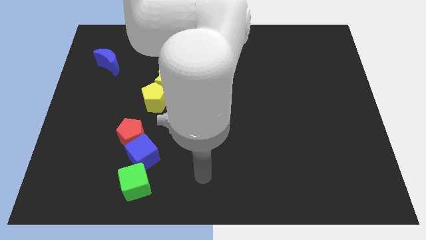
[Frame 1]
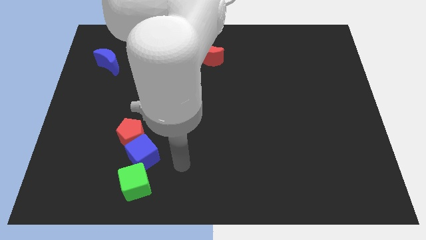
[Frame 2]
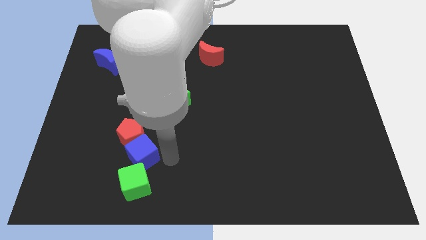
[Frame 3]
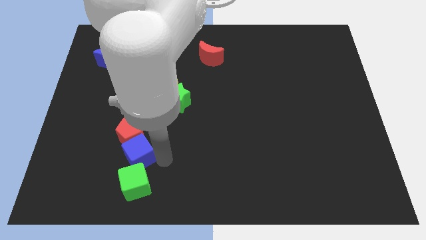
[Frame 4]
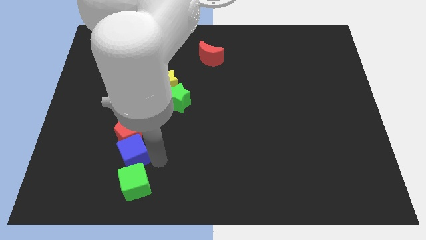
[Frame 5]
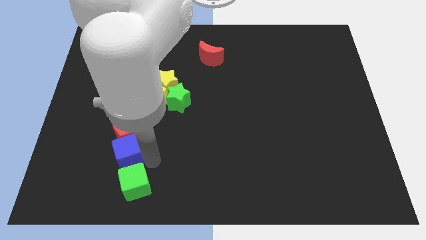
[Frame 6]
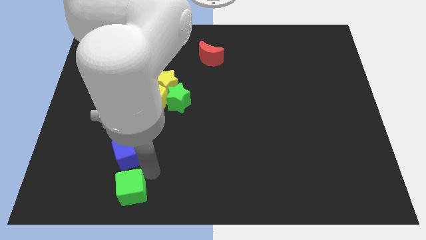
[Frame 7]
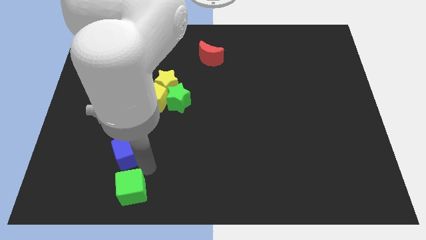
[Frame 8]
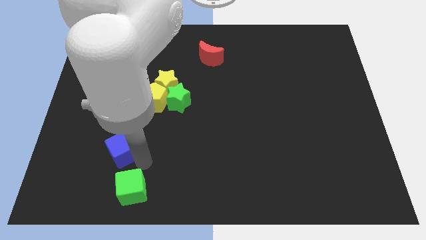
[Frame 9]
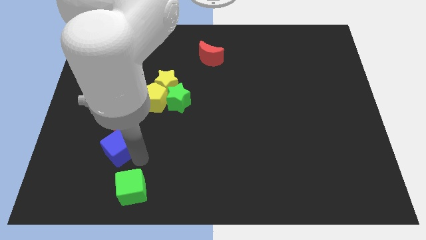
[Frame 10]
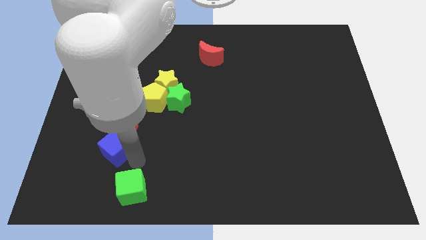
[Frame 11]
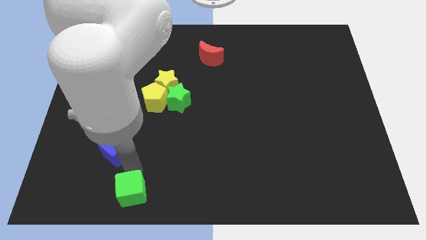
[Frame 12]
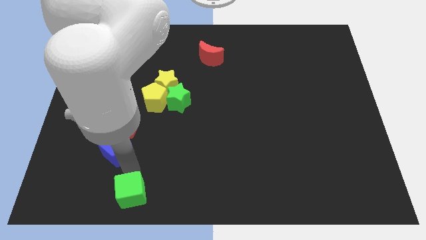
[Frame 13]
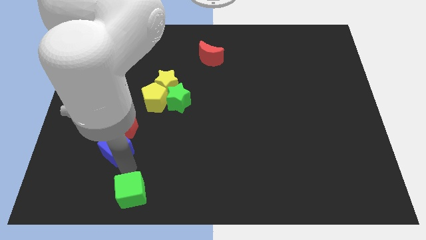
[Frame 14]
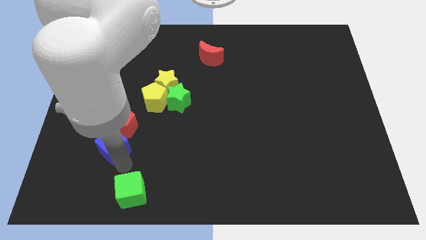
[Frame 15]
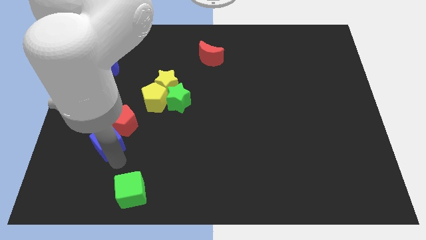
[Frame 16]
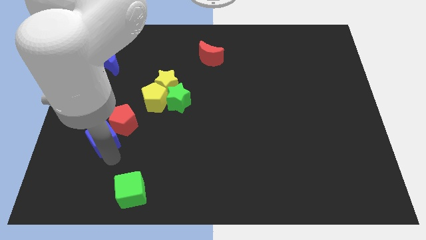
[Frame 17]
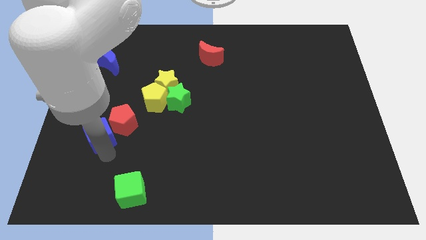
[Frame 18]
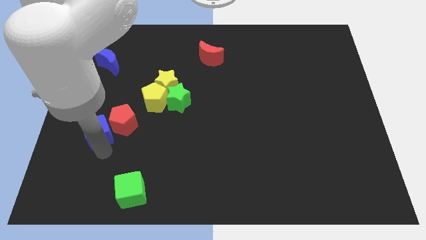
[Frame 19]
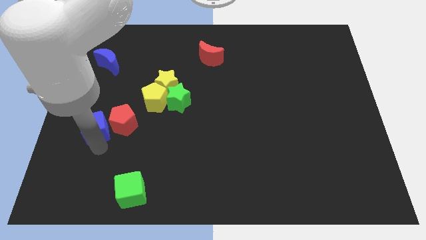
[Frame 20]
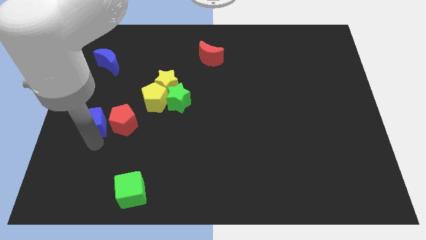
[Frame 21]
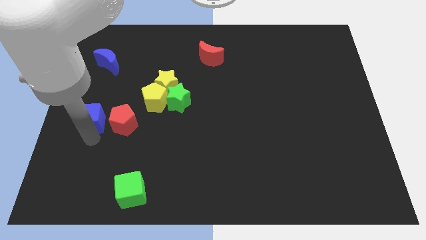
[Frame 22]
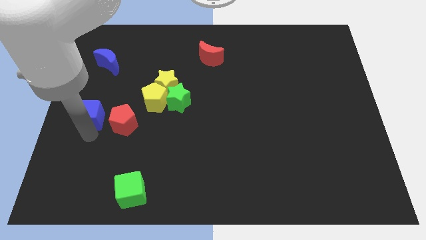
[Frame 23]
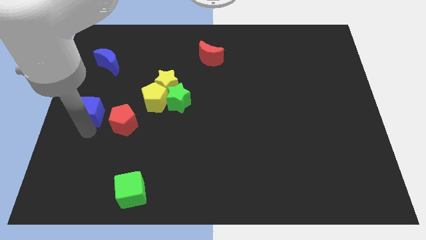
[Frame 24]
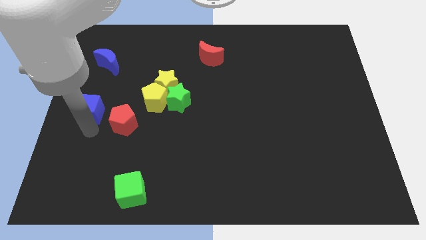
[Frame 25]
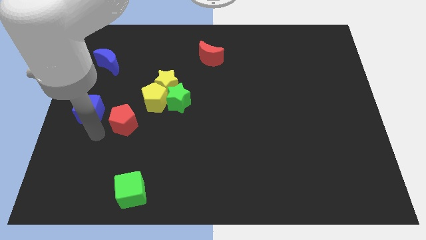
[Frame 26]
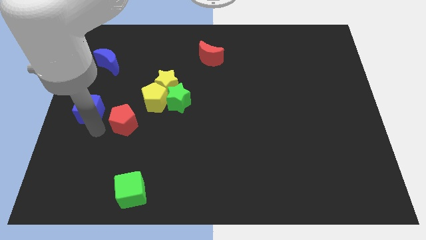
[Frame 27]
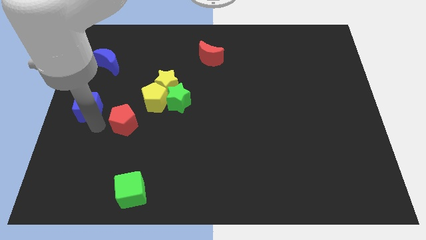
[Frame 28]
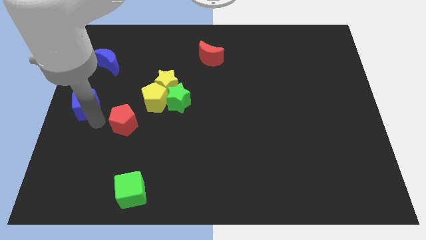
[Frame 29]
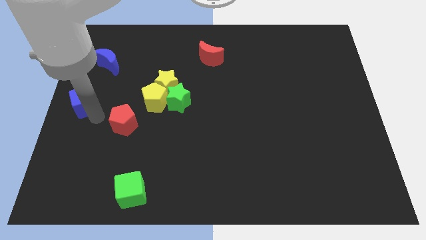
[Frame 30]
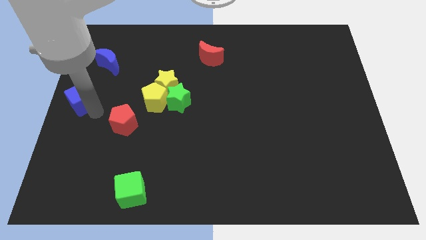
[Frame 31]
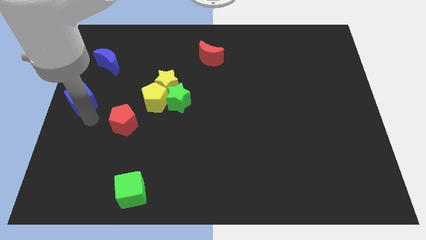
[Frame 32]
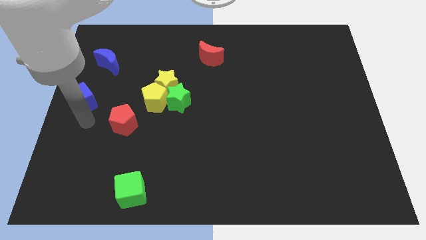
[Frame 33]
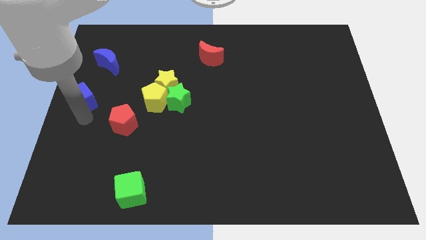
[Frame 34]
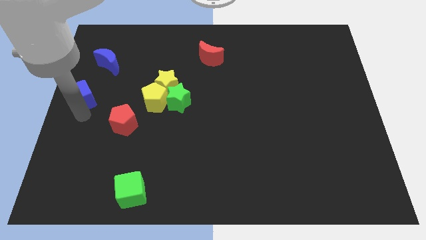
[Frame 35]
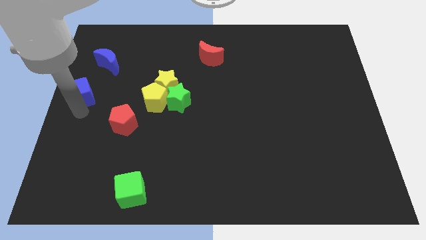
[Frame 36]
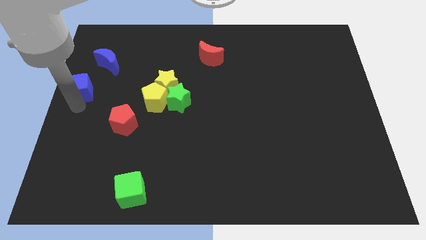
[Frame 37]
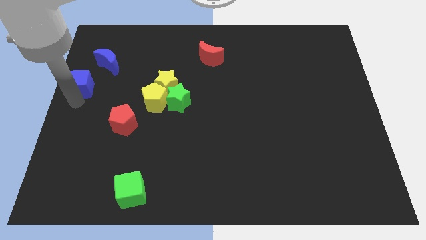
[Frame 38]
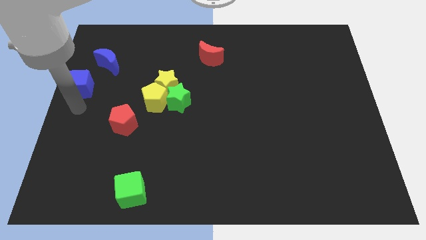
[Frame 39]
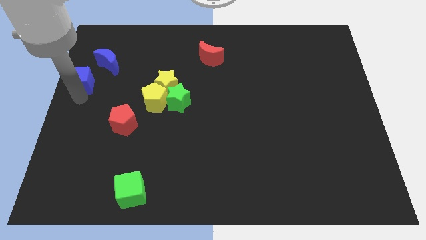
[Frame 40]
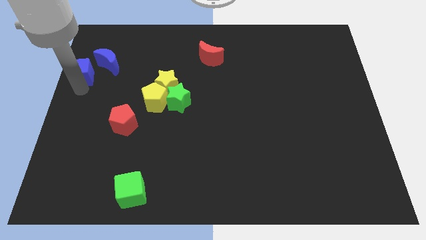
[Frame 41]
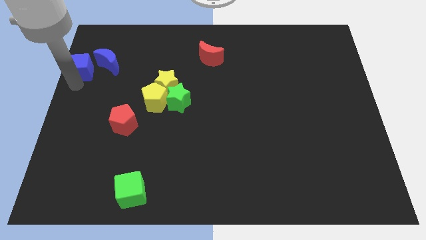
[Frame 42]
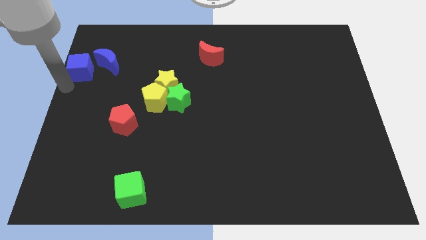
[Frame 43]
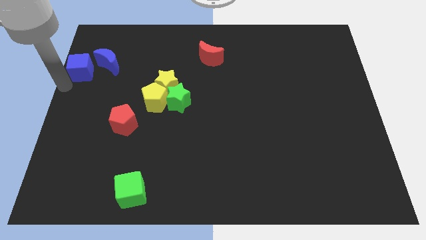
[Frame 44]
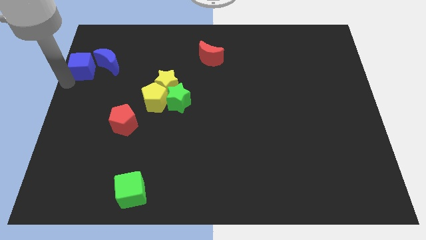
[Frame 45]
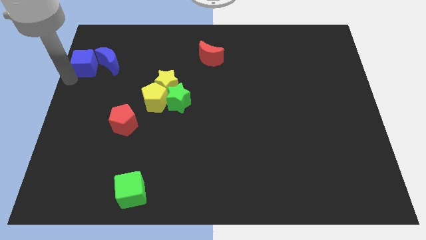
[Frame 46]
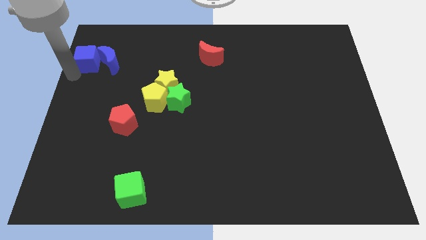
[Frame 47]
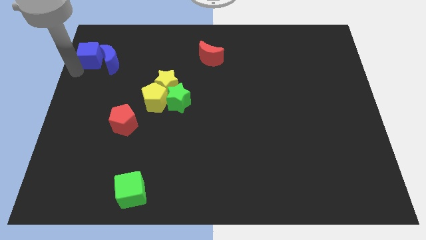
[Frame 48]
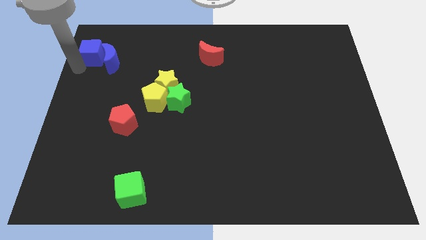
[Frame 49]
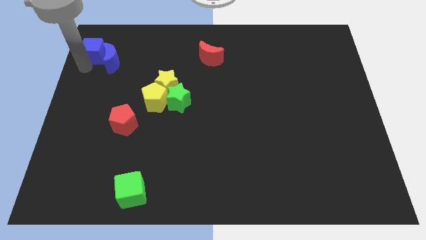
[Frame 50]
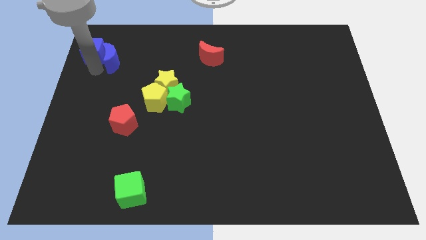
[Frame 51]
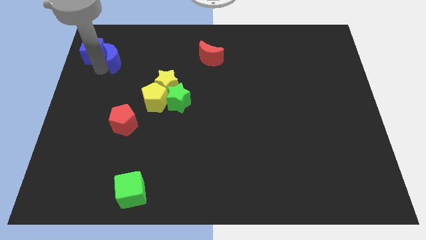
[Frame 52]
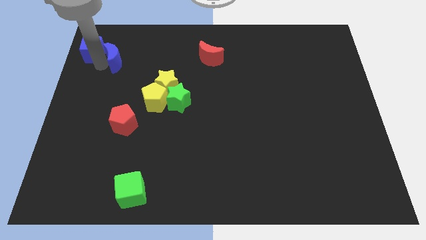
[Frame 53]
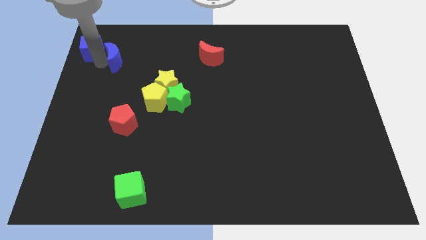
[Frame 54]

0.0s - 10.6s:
push the blue cube to the top left of the board

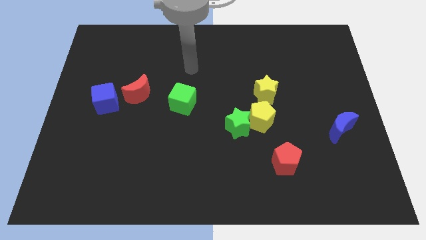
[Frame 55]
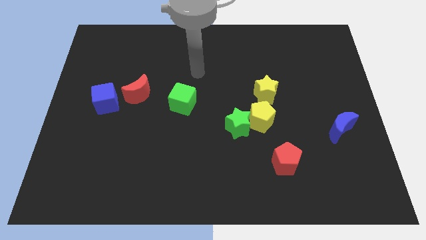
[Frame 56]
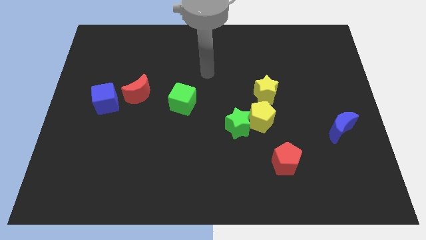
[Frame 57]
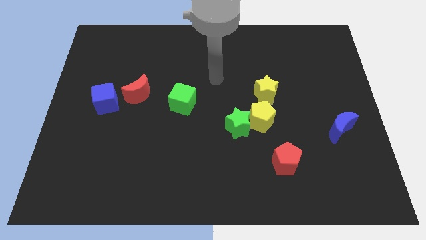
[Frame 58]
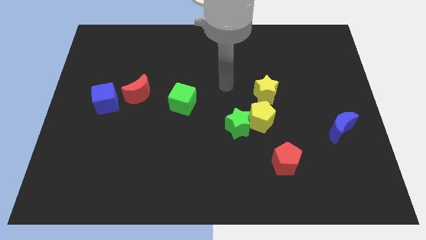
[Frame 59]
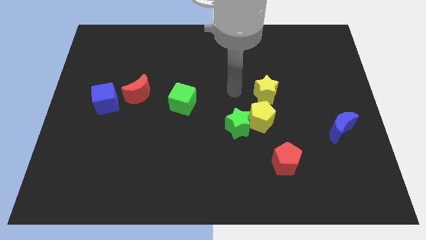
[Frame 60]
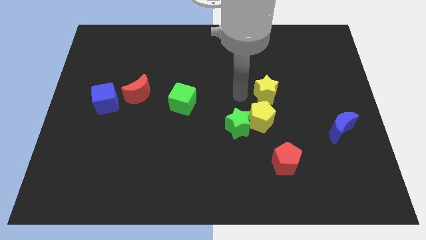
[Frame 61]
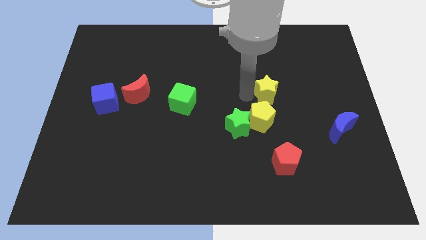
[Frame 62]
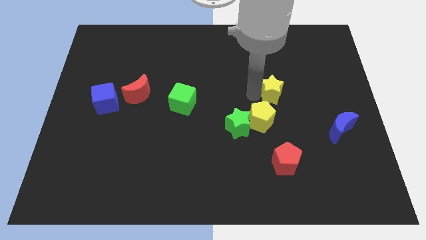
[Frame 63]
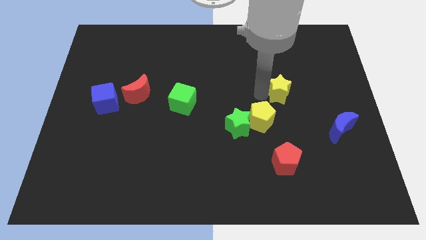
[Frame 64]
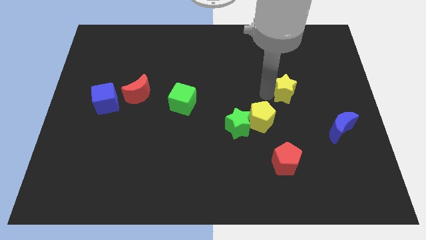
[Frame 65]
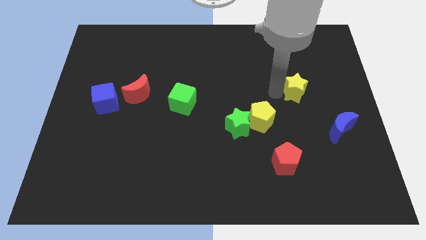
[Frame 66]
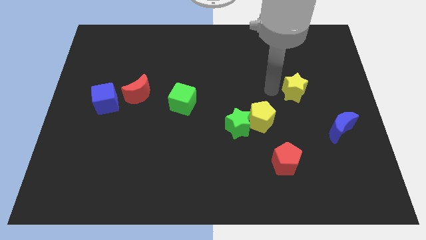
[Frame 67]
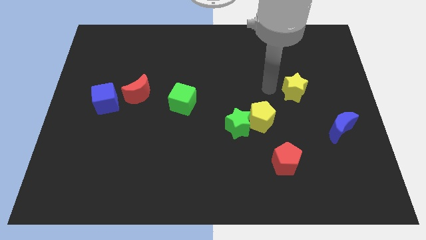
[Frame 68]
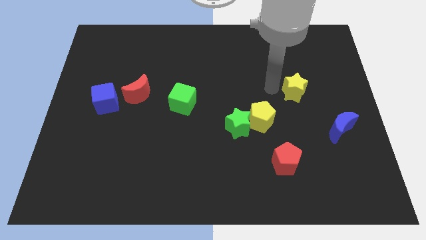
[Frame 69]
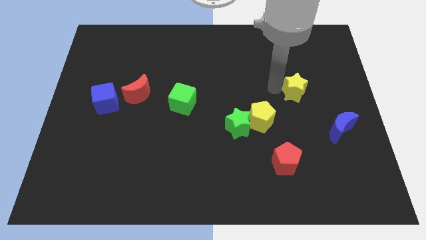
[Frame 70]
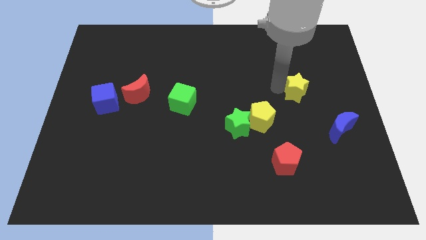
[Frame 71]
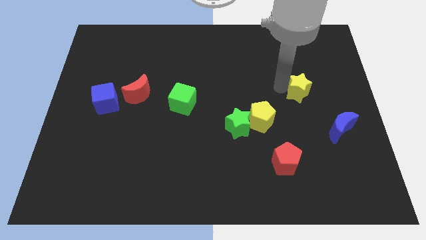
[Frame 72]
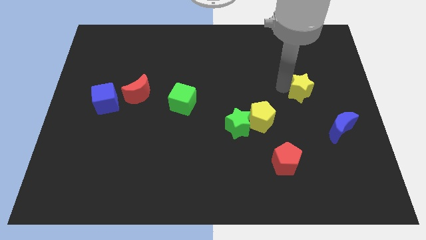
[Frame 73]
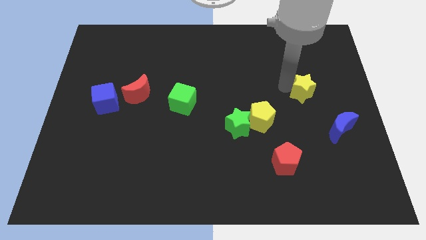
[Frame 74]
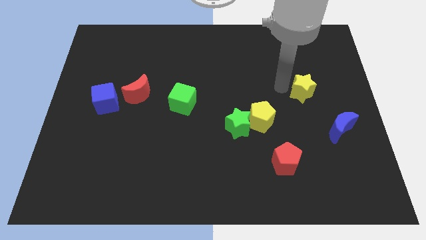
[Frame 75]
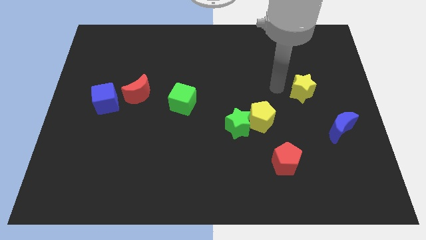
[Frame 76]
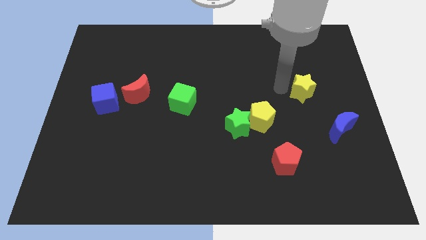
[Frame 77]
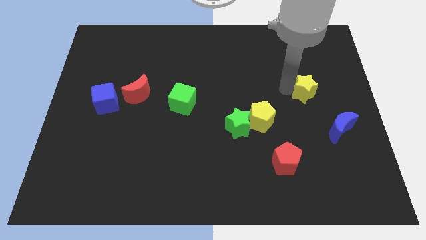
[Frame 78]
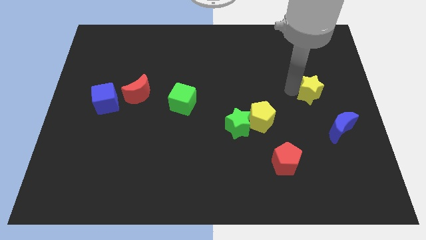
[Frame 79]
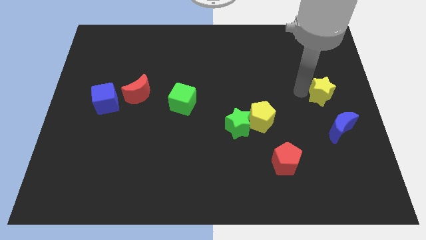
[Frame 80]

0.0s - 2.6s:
put the yellow star to the center right
